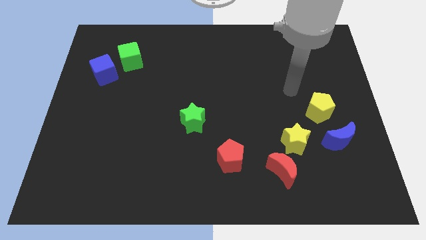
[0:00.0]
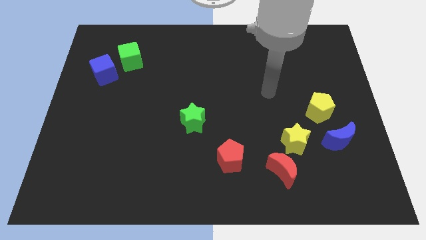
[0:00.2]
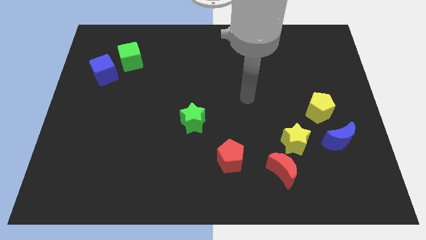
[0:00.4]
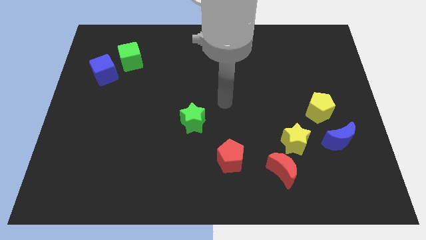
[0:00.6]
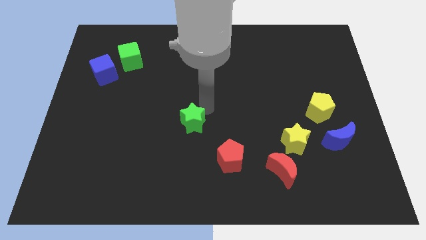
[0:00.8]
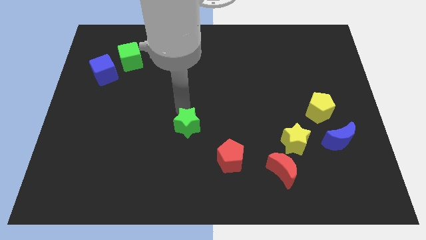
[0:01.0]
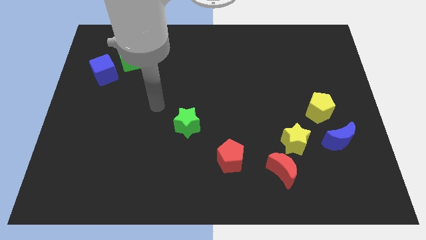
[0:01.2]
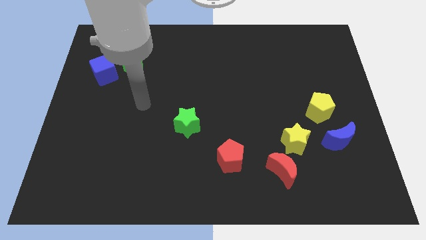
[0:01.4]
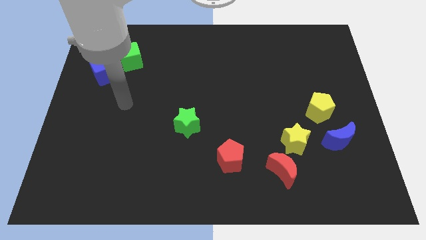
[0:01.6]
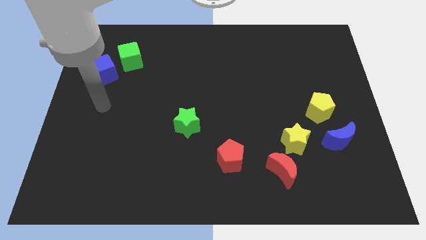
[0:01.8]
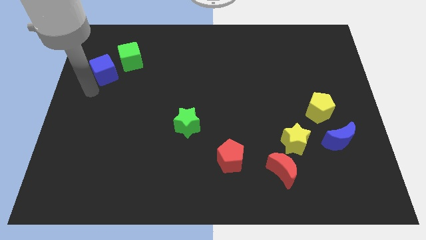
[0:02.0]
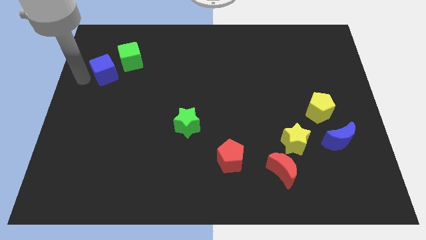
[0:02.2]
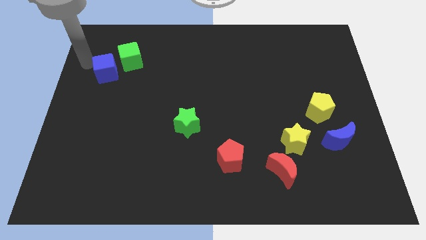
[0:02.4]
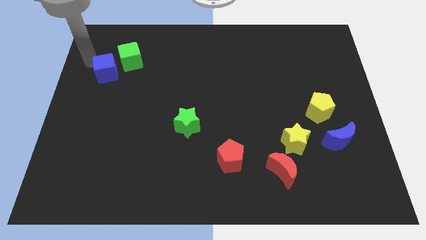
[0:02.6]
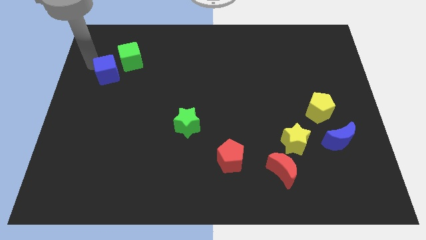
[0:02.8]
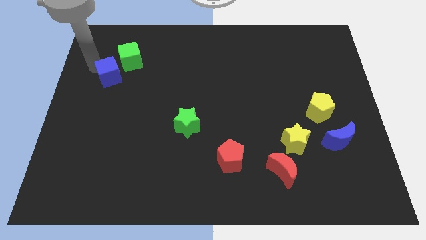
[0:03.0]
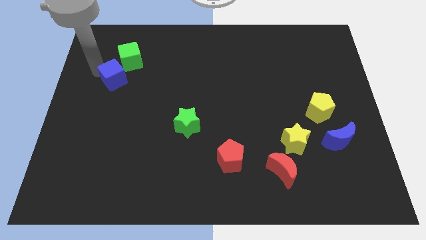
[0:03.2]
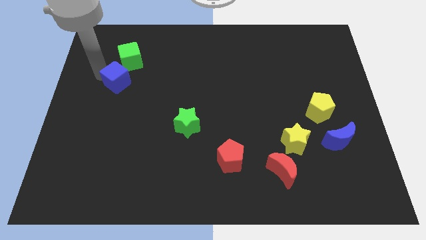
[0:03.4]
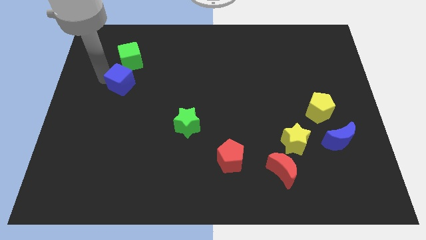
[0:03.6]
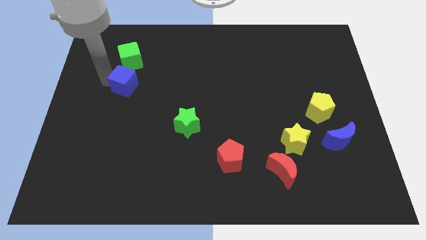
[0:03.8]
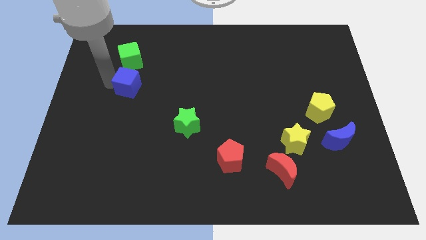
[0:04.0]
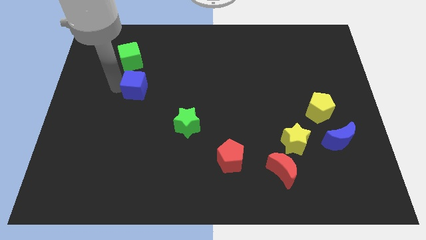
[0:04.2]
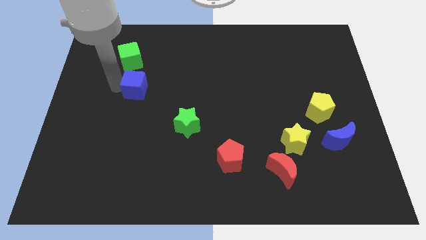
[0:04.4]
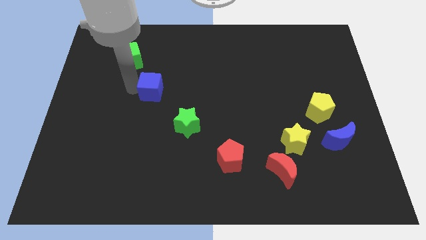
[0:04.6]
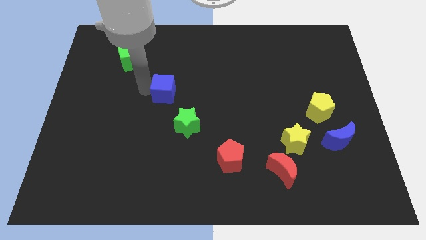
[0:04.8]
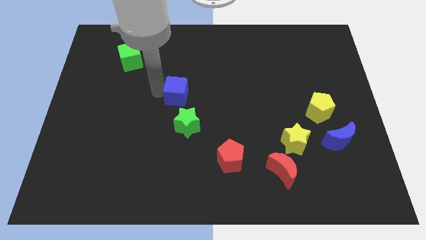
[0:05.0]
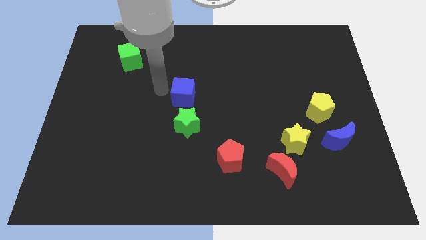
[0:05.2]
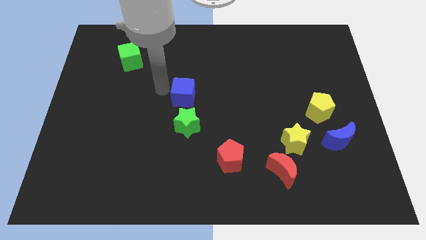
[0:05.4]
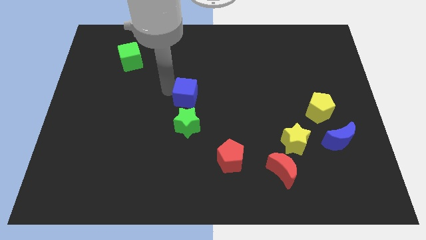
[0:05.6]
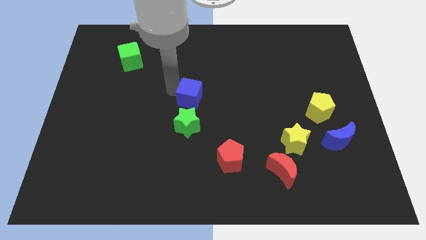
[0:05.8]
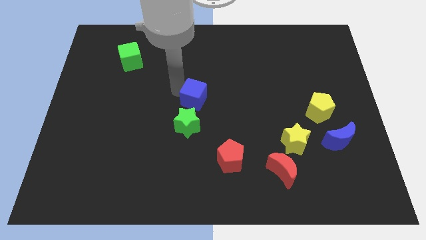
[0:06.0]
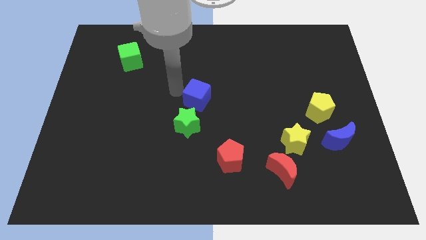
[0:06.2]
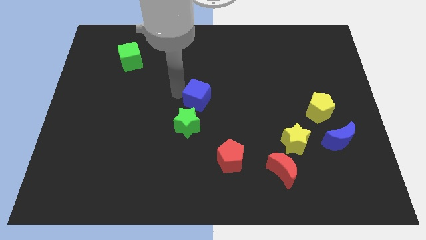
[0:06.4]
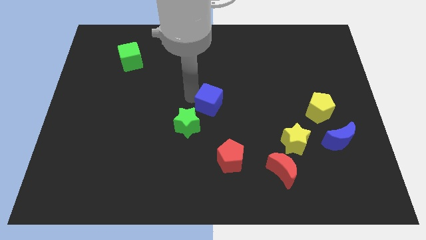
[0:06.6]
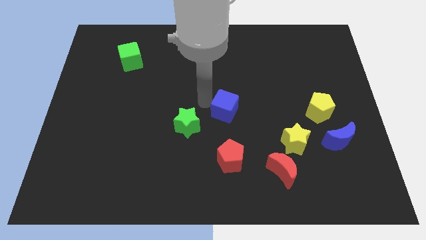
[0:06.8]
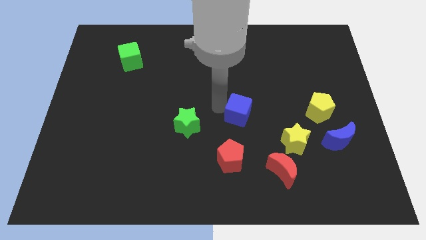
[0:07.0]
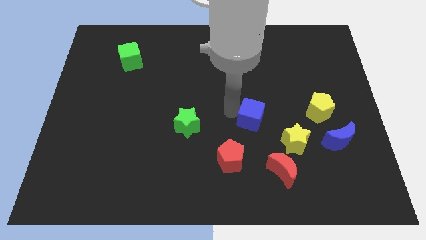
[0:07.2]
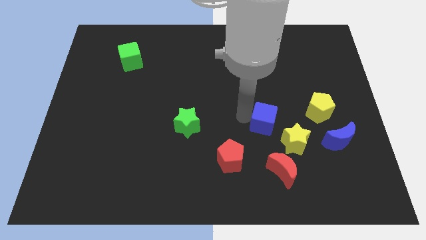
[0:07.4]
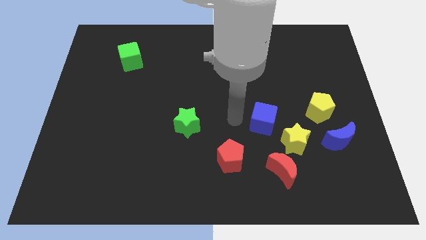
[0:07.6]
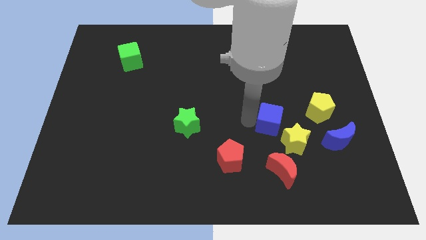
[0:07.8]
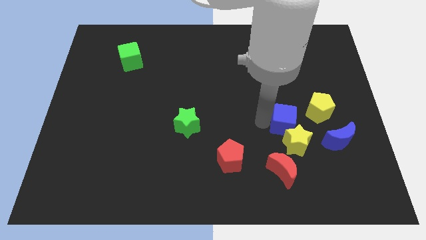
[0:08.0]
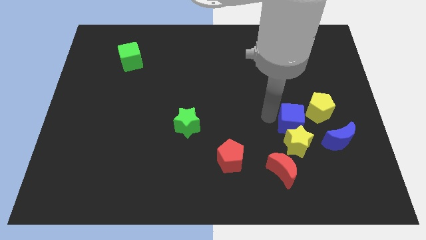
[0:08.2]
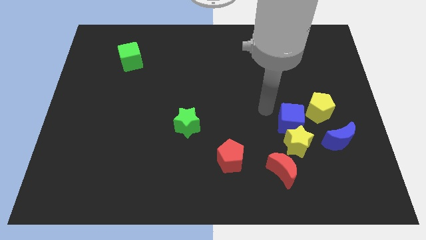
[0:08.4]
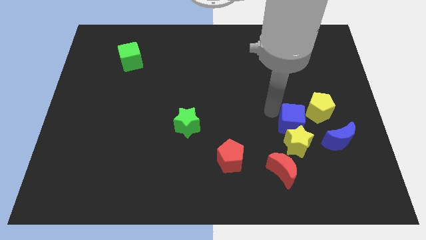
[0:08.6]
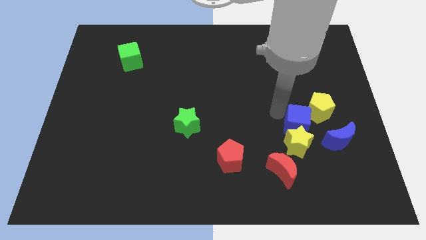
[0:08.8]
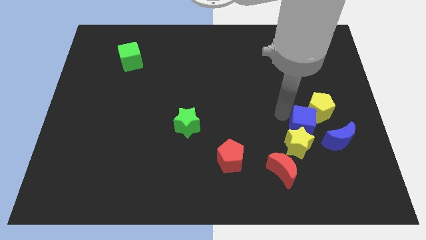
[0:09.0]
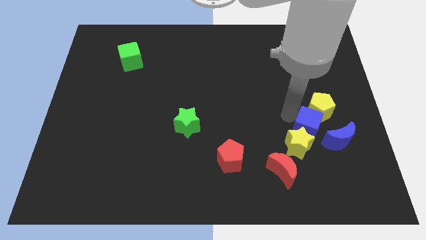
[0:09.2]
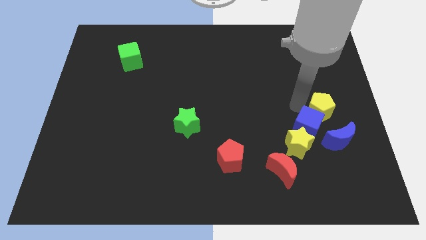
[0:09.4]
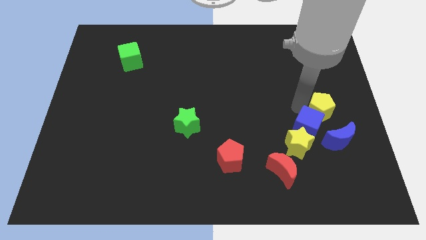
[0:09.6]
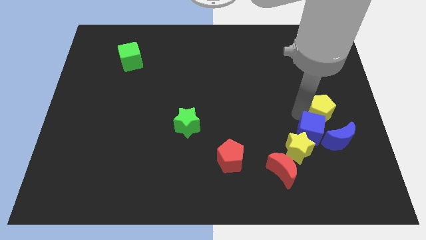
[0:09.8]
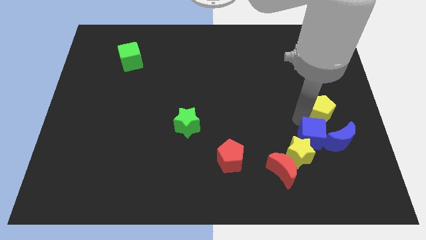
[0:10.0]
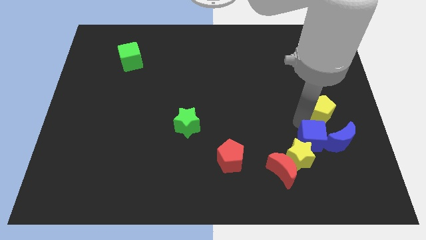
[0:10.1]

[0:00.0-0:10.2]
move the blue cube to the bottom left side of the blue moon

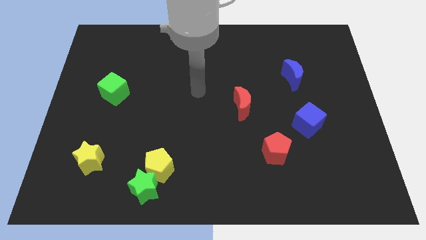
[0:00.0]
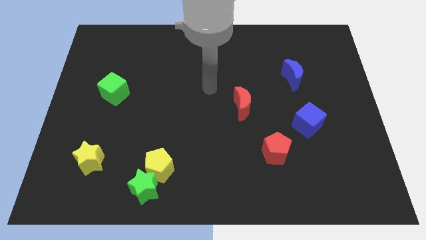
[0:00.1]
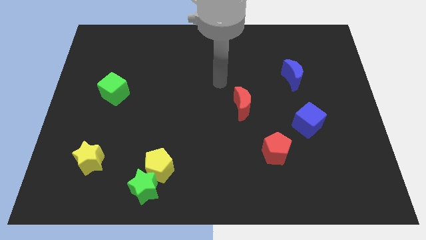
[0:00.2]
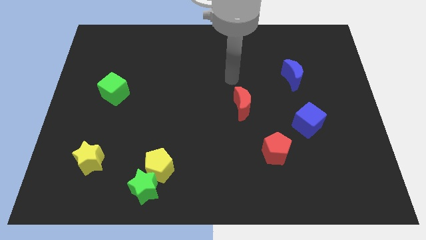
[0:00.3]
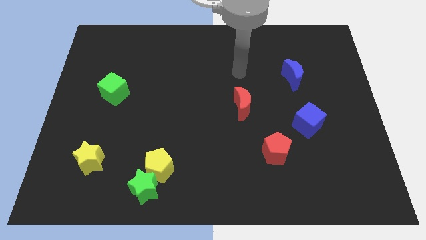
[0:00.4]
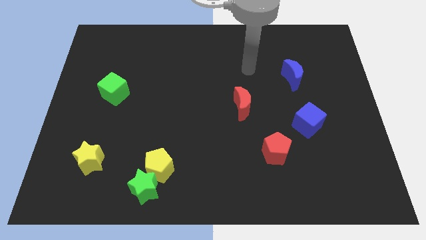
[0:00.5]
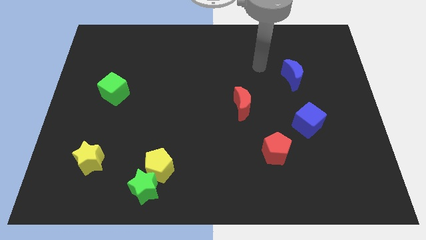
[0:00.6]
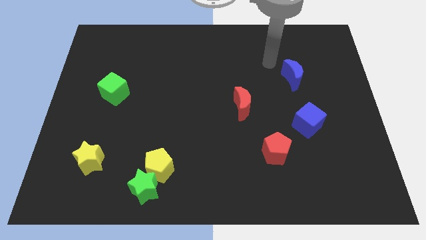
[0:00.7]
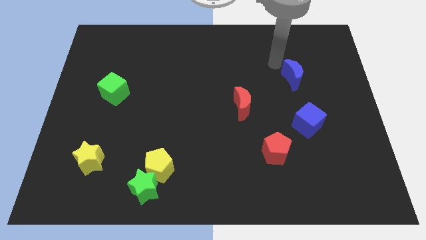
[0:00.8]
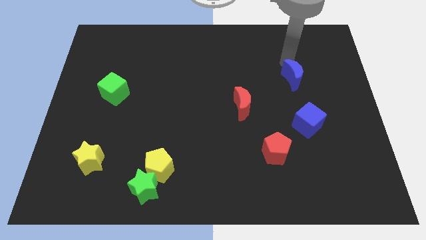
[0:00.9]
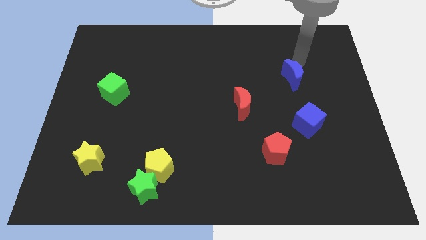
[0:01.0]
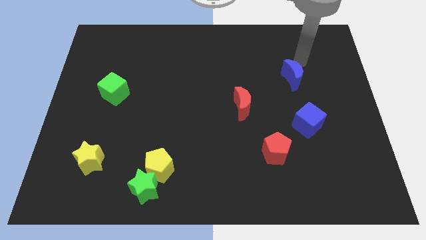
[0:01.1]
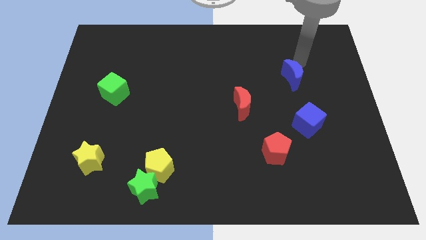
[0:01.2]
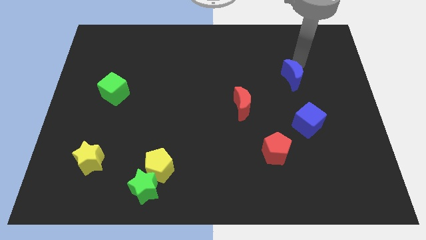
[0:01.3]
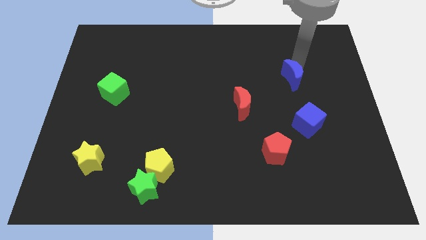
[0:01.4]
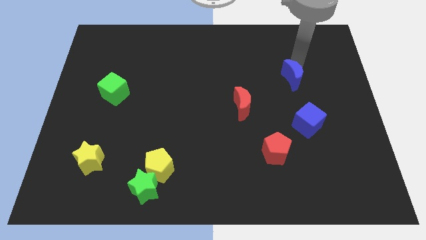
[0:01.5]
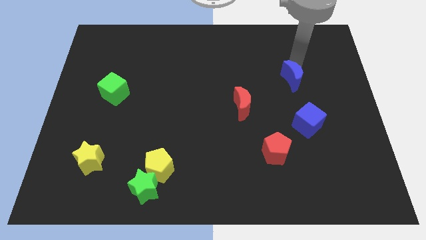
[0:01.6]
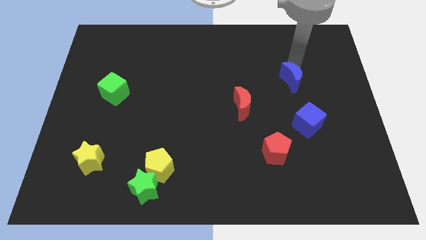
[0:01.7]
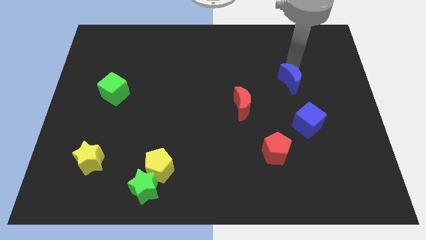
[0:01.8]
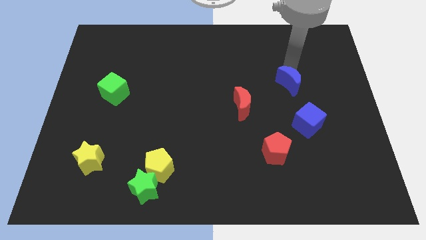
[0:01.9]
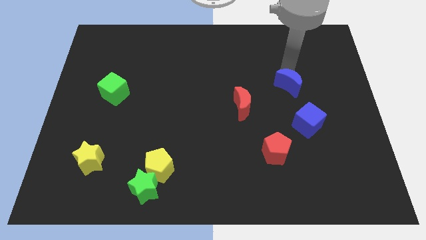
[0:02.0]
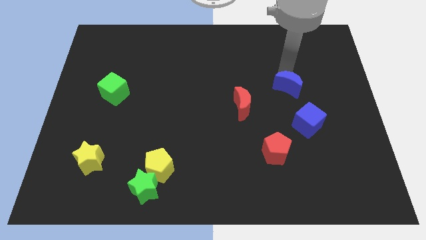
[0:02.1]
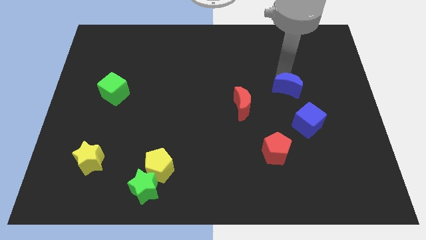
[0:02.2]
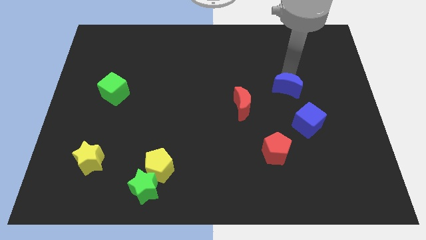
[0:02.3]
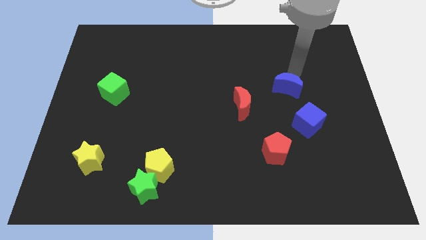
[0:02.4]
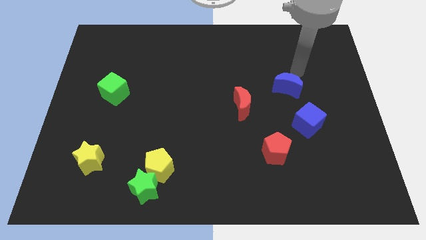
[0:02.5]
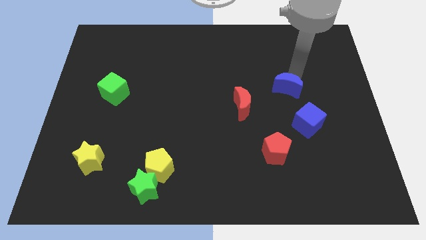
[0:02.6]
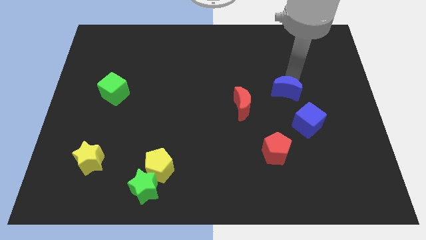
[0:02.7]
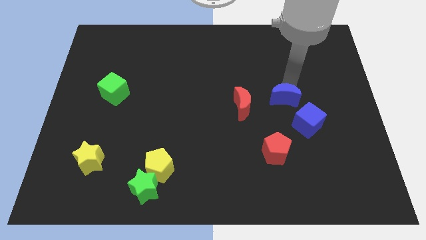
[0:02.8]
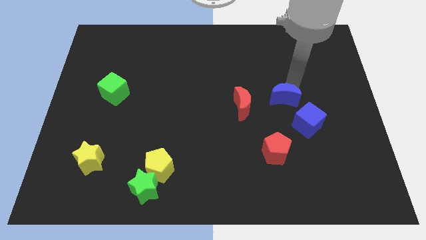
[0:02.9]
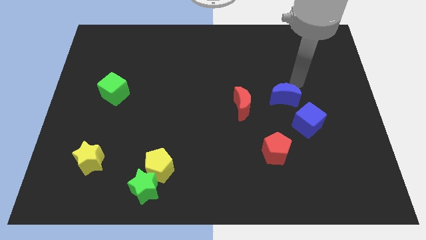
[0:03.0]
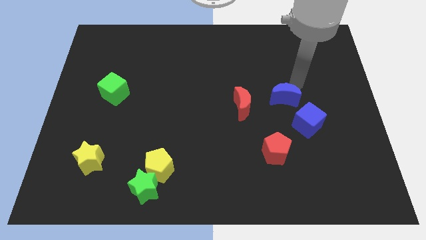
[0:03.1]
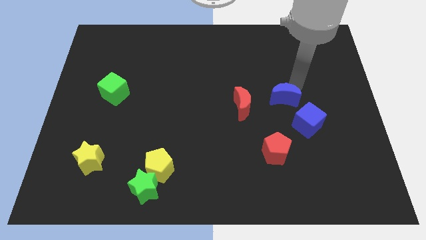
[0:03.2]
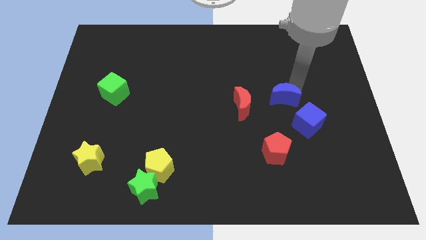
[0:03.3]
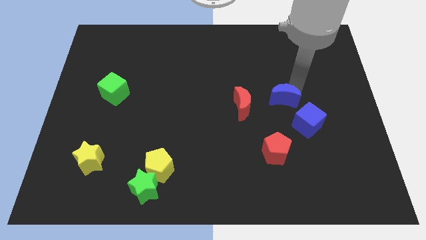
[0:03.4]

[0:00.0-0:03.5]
push the blue moon to the top side of the red pentagon
